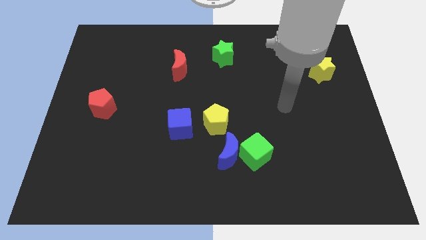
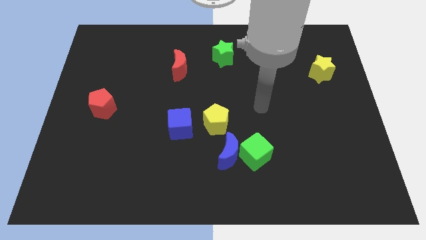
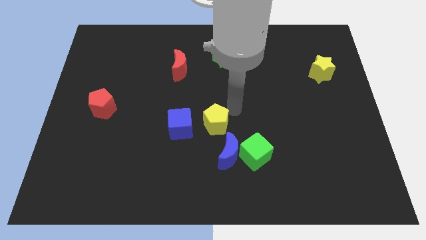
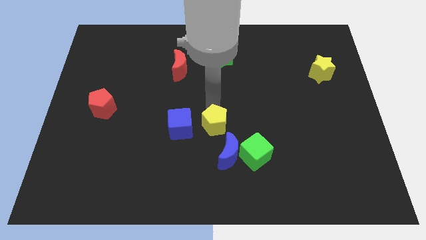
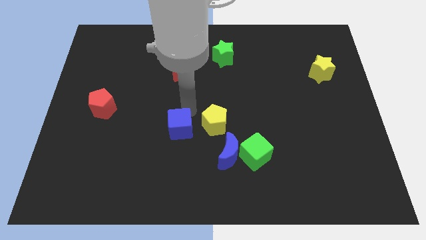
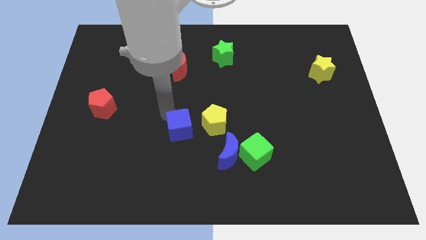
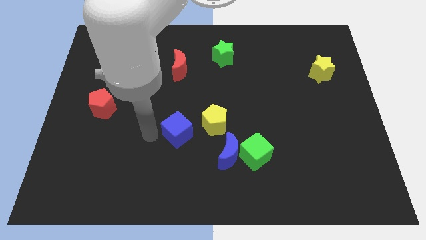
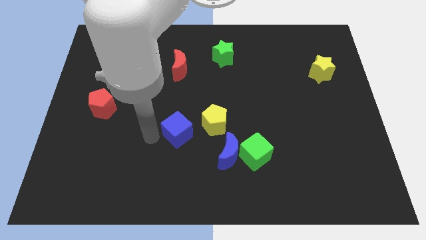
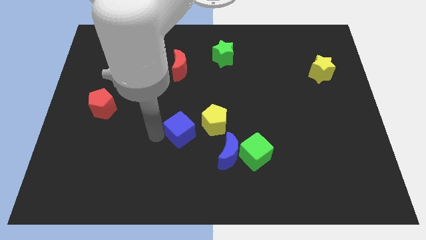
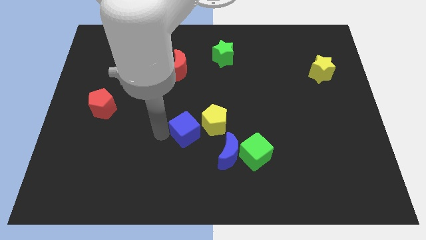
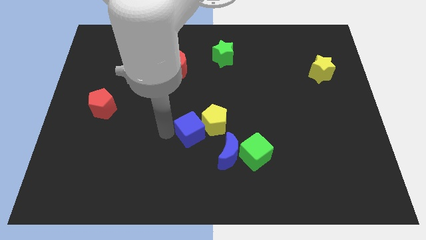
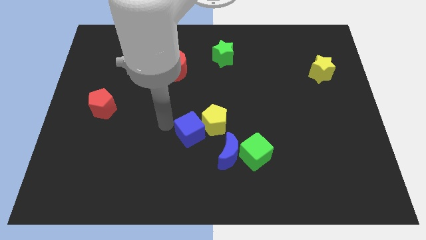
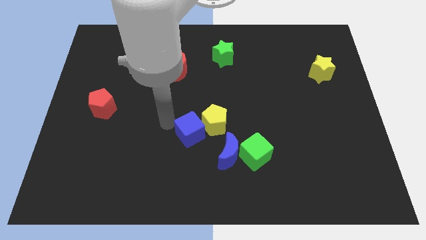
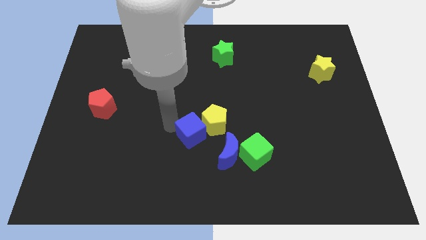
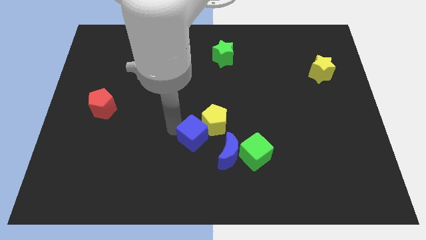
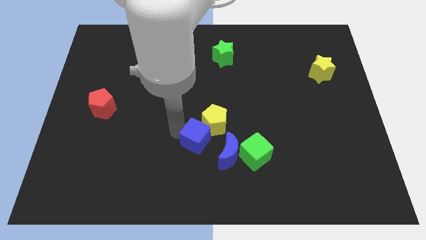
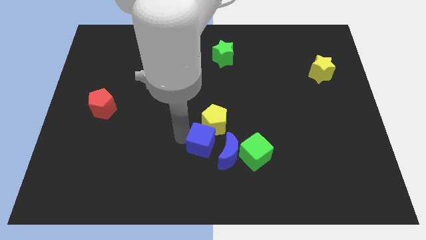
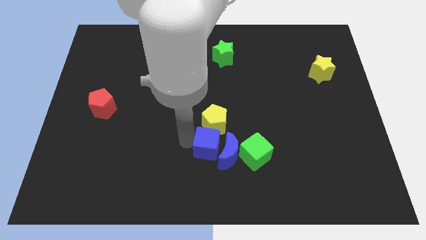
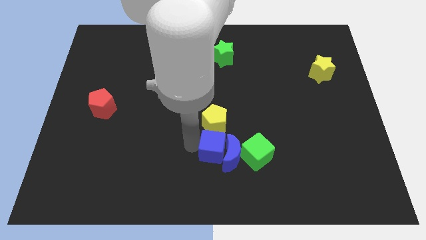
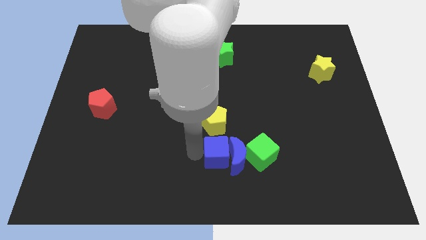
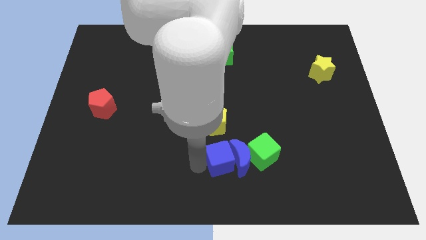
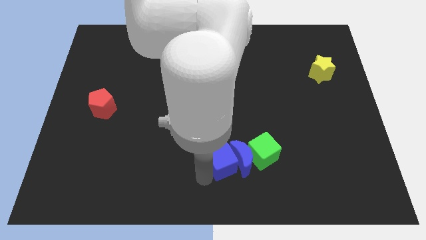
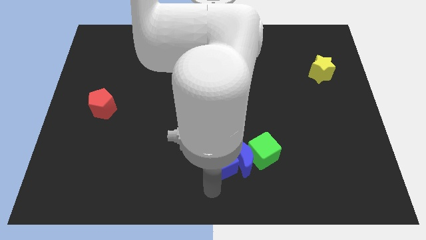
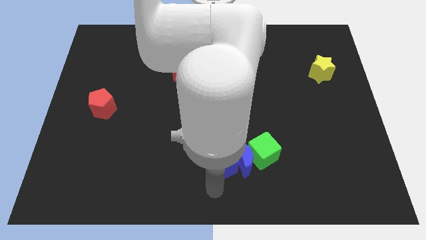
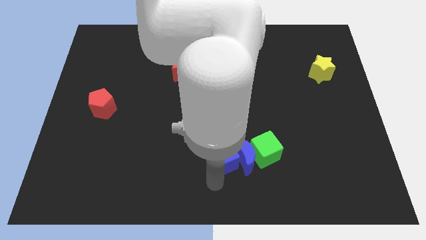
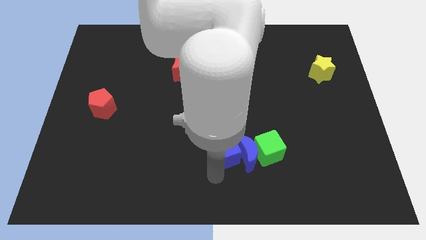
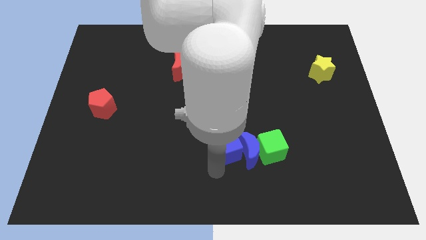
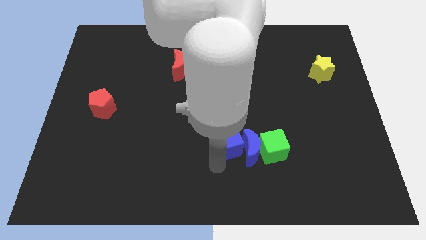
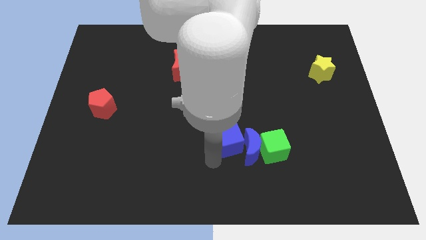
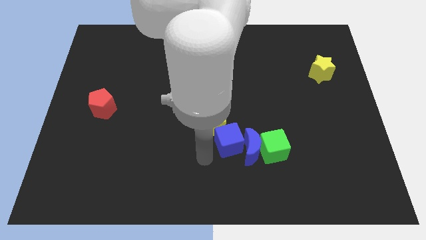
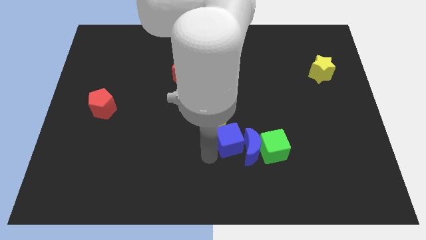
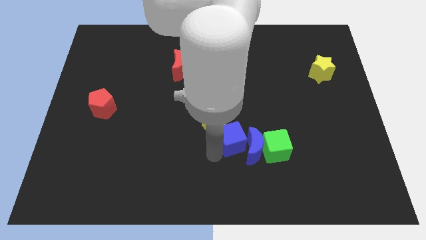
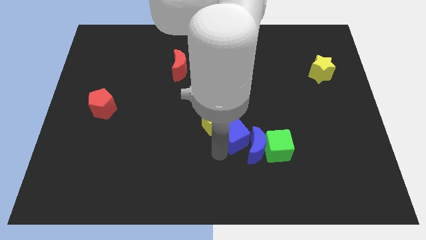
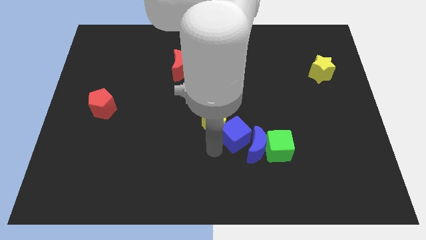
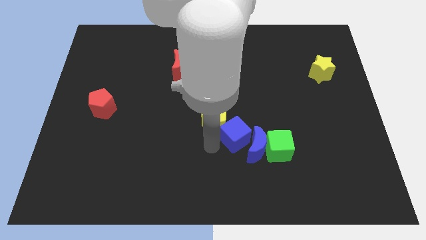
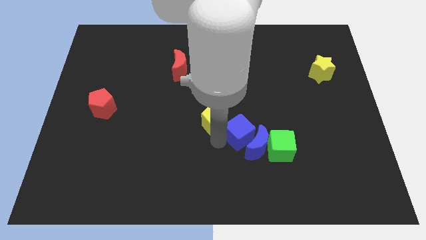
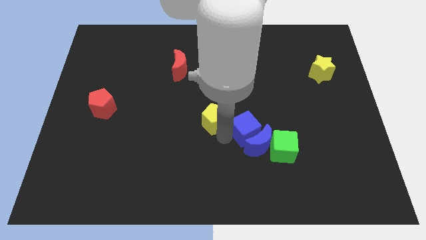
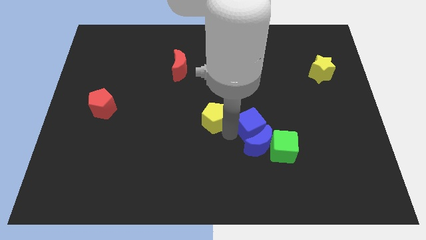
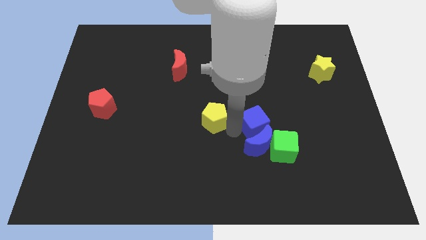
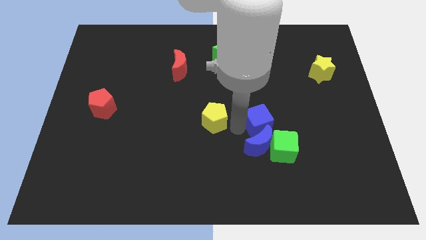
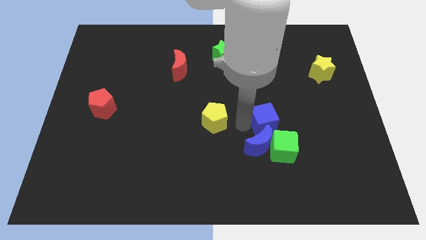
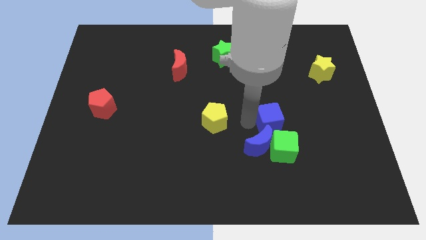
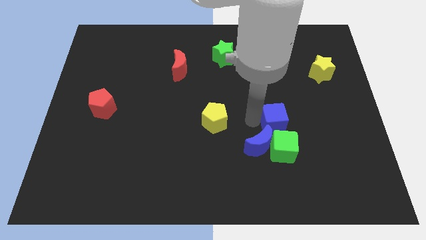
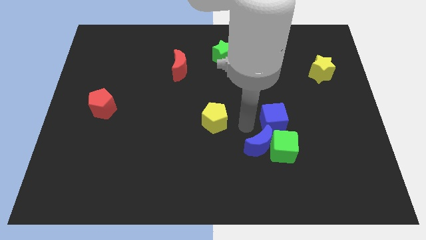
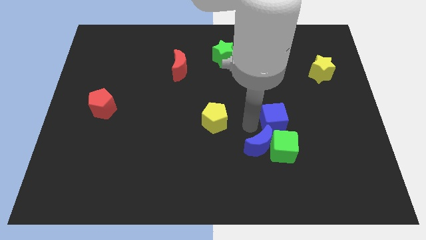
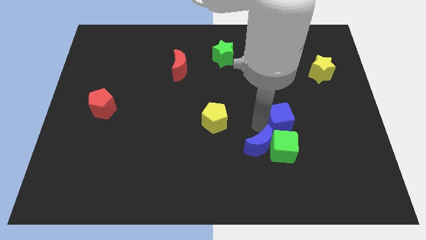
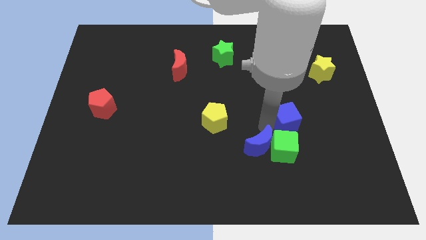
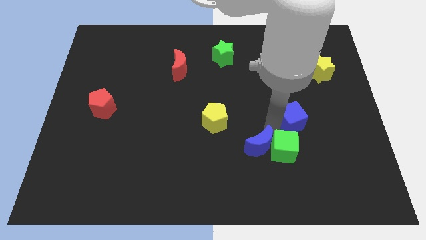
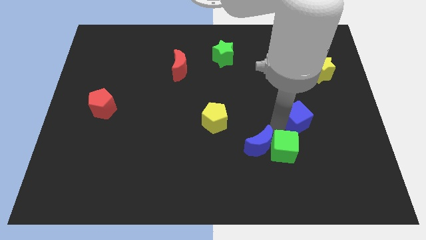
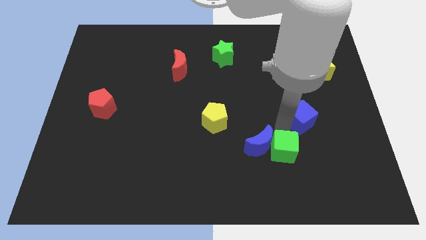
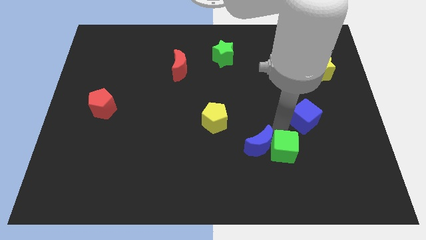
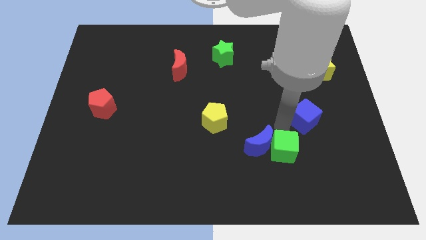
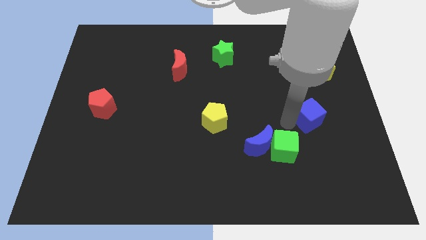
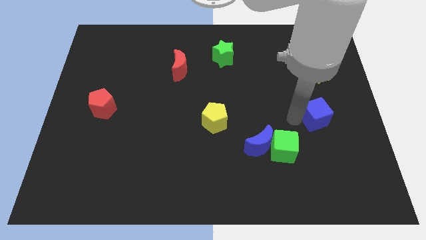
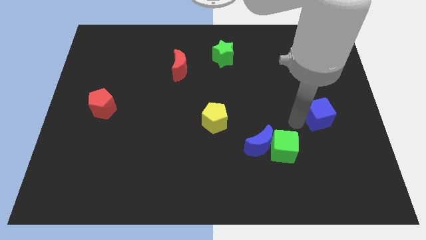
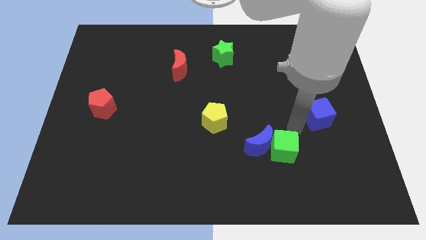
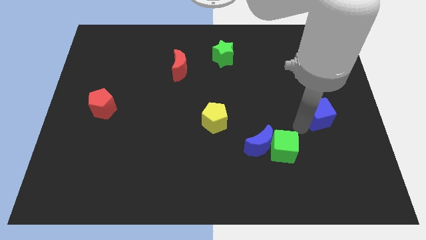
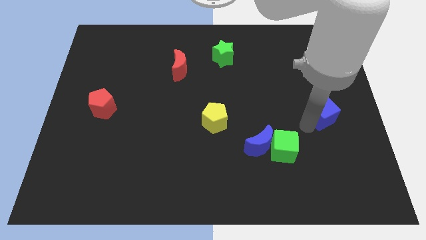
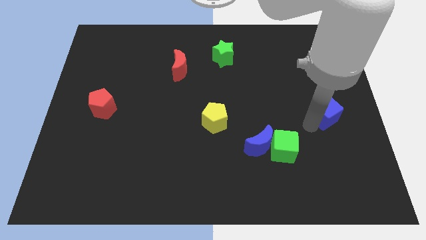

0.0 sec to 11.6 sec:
push the blue cube to the center right

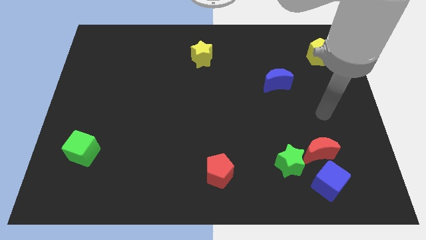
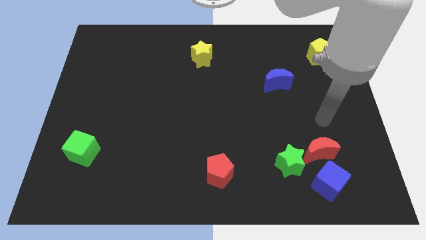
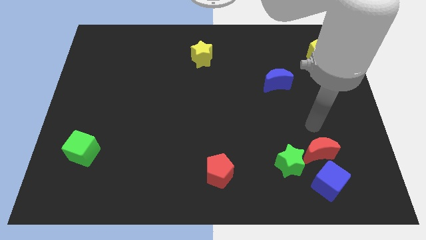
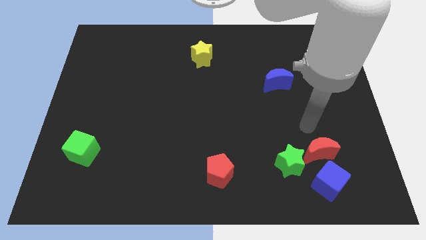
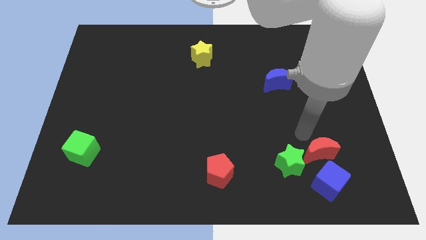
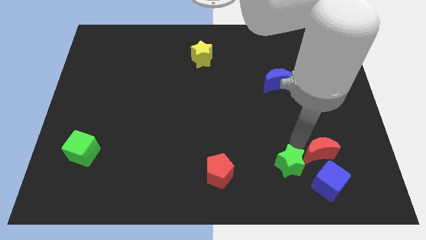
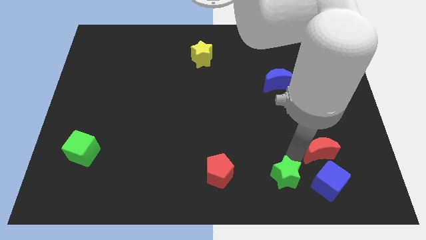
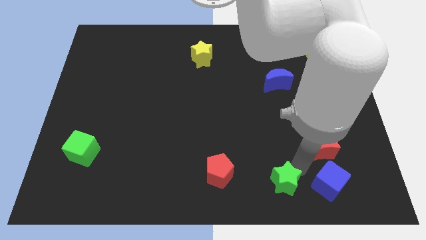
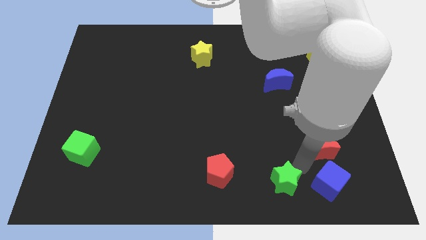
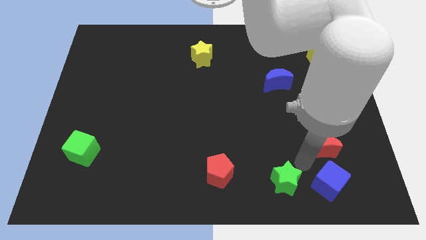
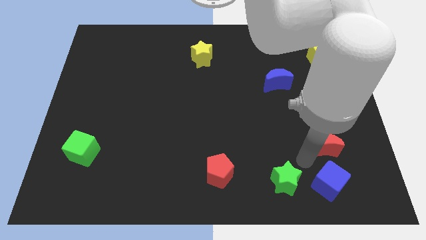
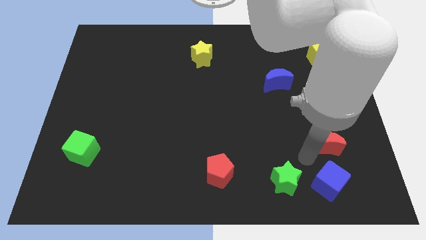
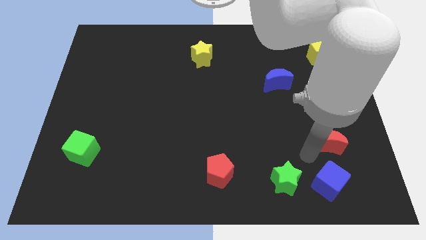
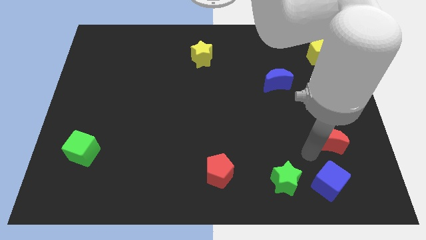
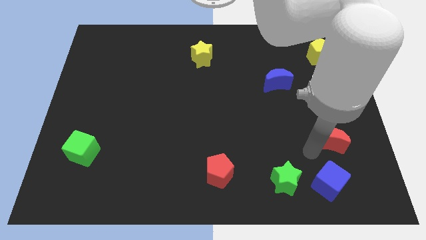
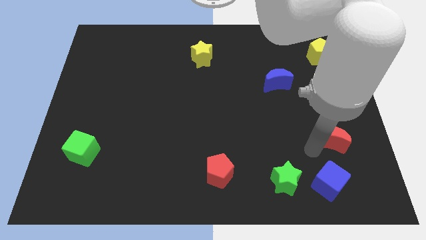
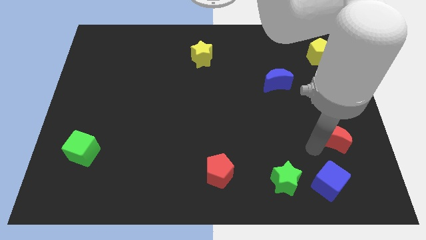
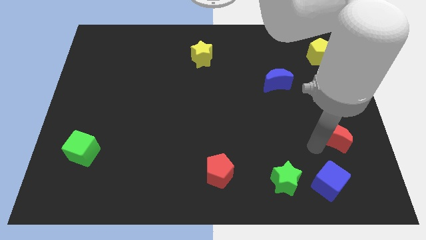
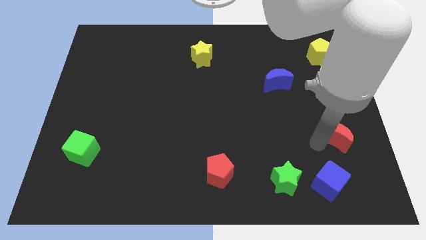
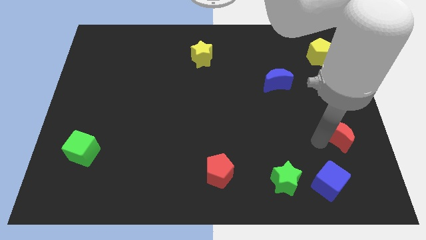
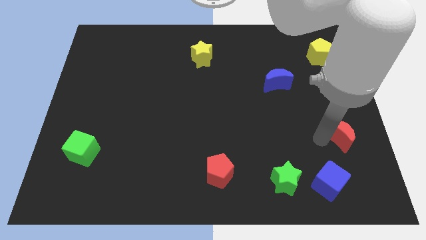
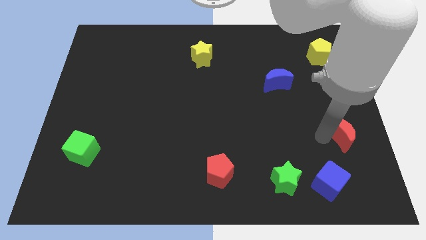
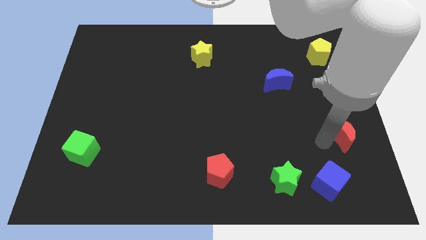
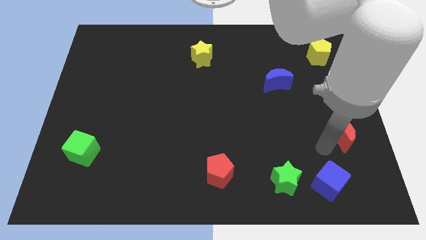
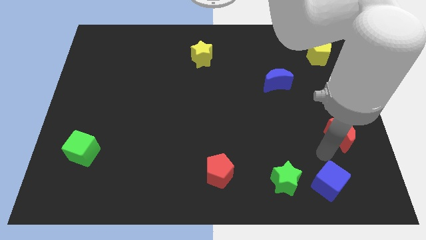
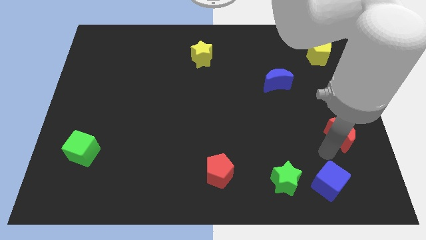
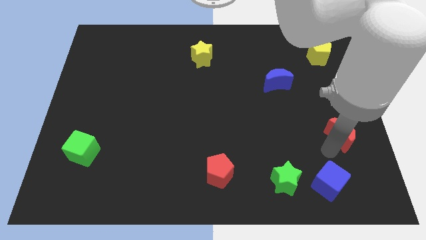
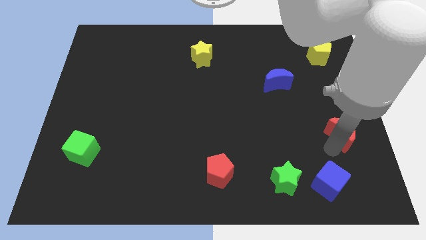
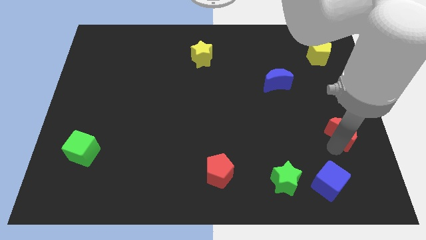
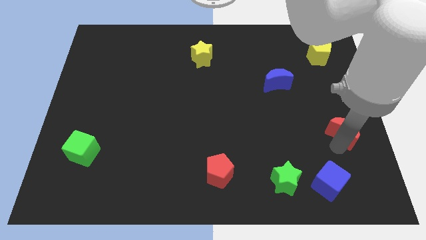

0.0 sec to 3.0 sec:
slide the red moon to the right side of the board
